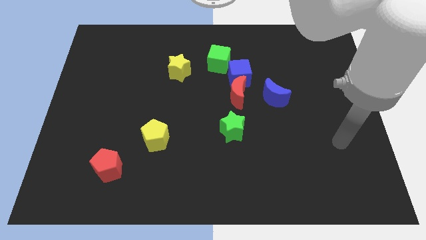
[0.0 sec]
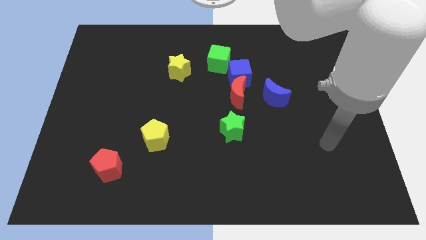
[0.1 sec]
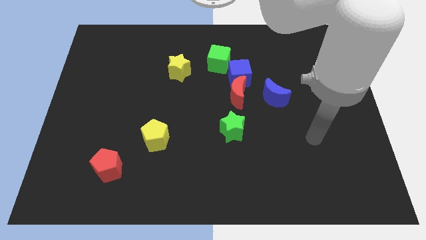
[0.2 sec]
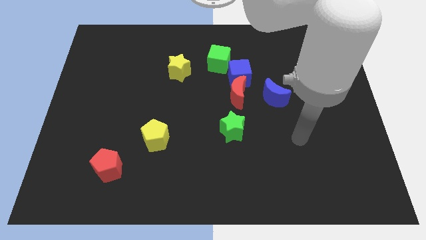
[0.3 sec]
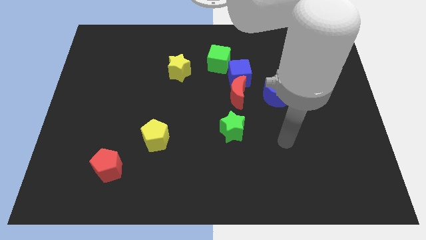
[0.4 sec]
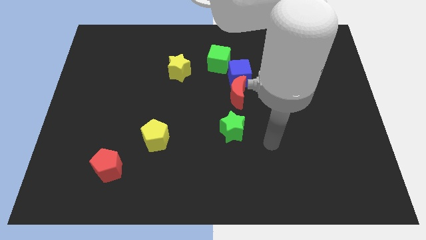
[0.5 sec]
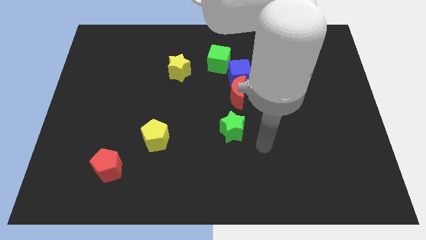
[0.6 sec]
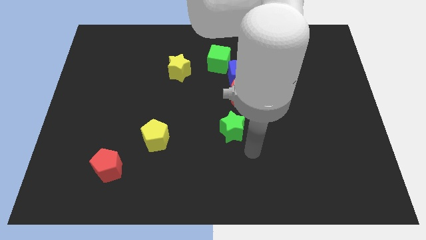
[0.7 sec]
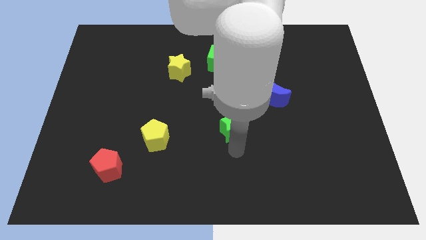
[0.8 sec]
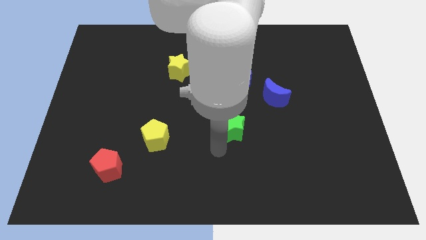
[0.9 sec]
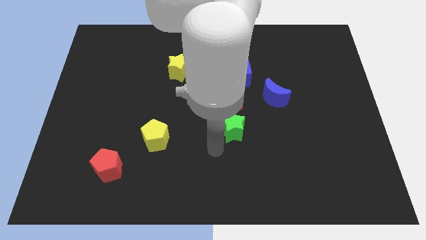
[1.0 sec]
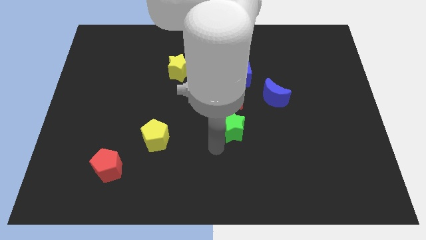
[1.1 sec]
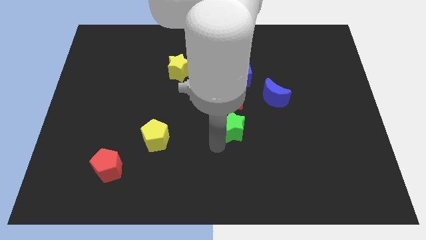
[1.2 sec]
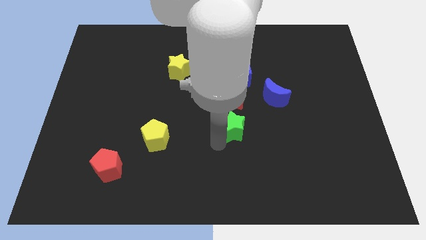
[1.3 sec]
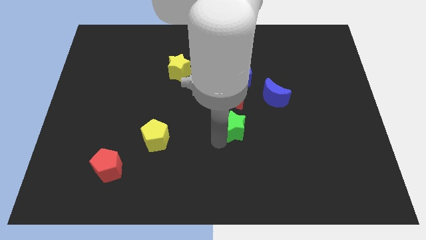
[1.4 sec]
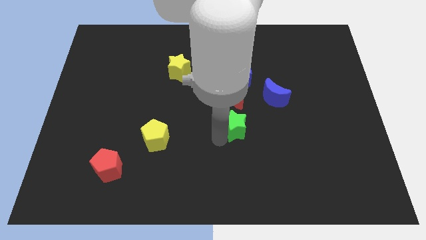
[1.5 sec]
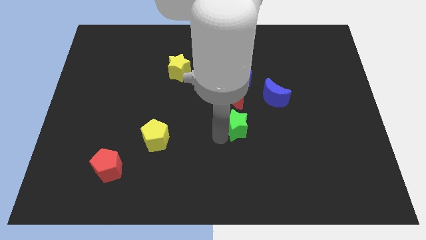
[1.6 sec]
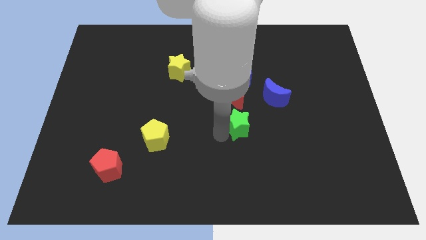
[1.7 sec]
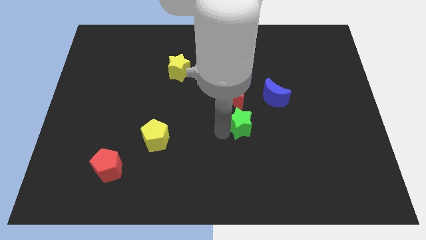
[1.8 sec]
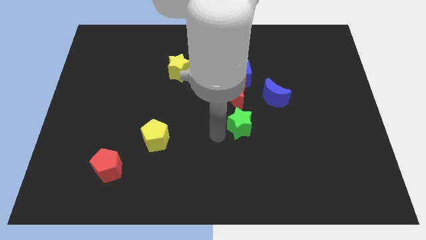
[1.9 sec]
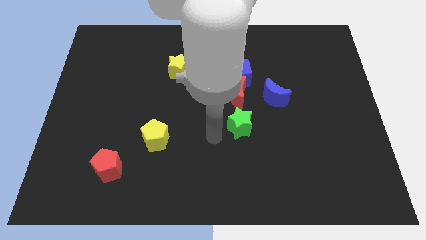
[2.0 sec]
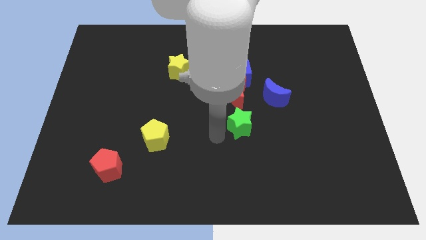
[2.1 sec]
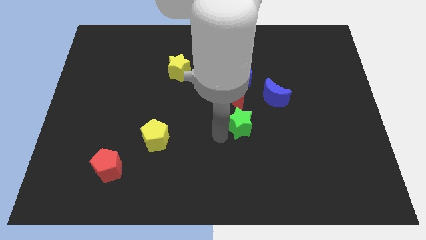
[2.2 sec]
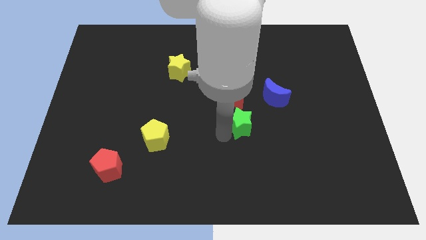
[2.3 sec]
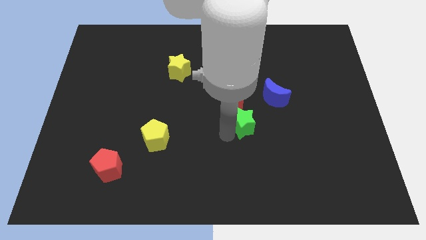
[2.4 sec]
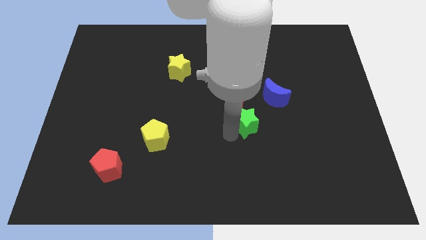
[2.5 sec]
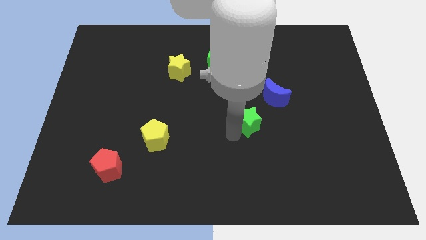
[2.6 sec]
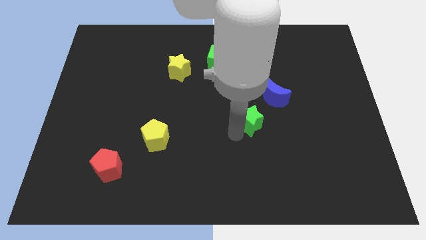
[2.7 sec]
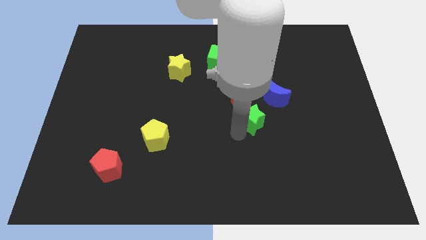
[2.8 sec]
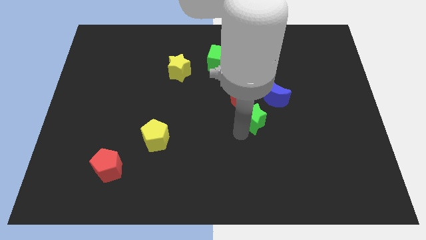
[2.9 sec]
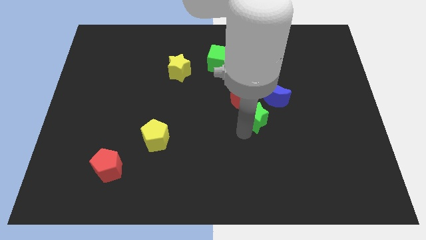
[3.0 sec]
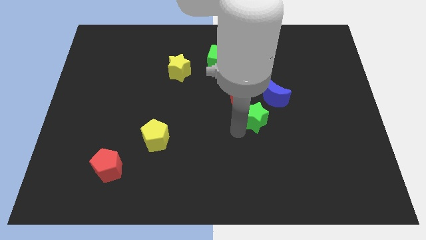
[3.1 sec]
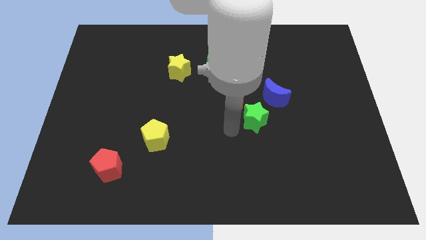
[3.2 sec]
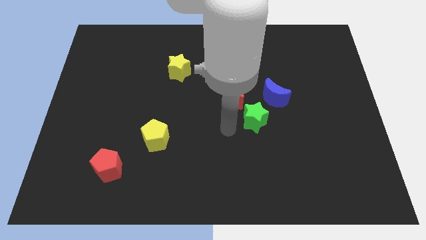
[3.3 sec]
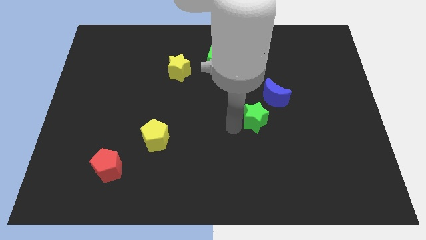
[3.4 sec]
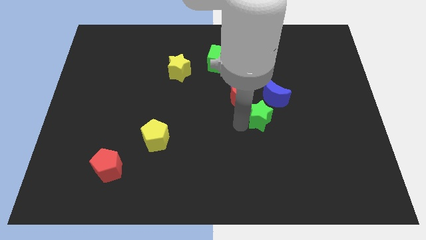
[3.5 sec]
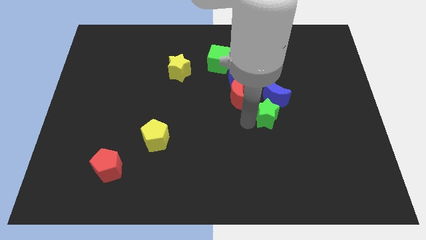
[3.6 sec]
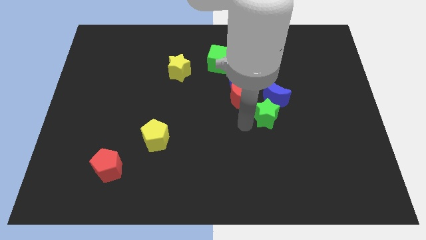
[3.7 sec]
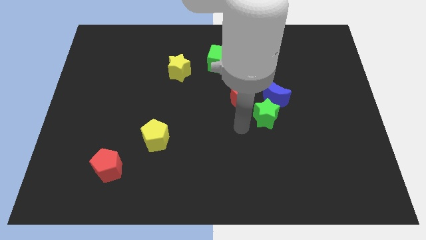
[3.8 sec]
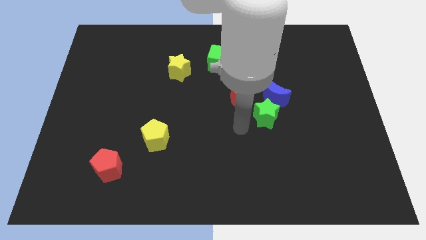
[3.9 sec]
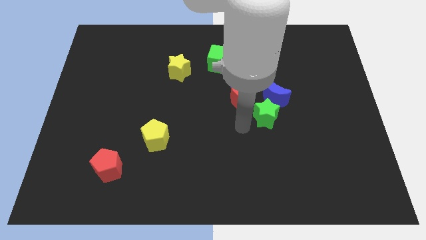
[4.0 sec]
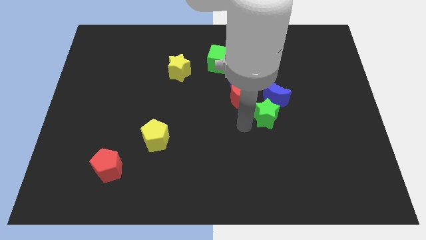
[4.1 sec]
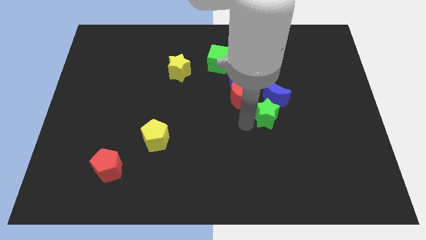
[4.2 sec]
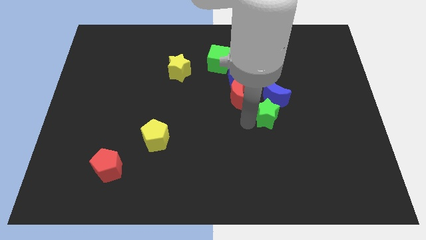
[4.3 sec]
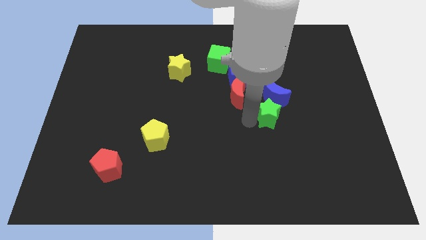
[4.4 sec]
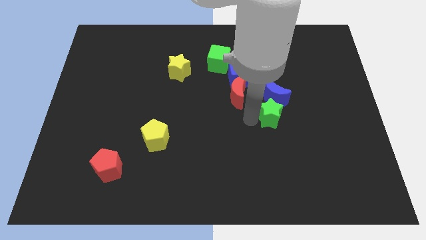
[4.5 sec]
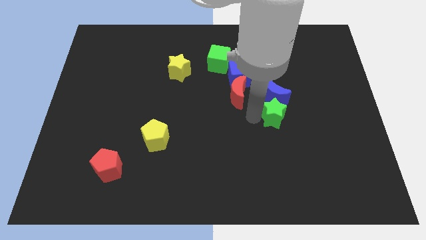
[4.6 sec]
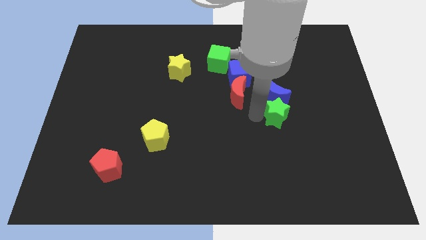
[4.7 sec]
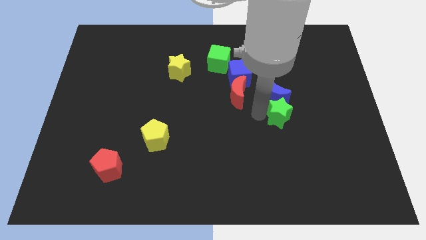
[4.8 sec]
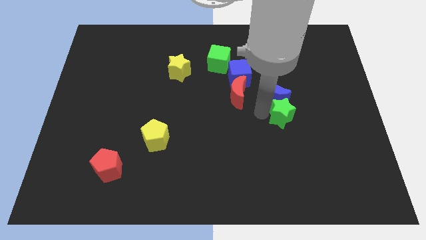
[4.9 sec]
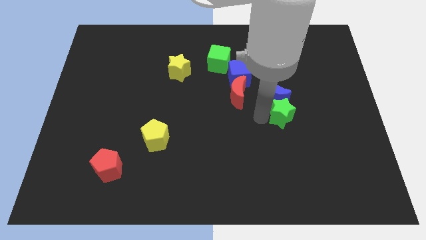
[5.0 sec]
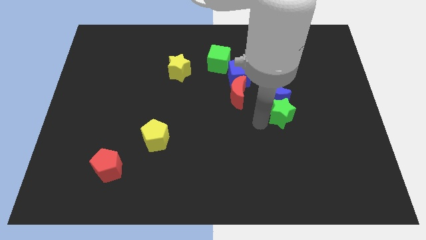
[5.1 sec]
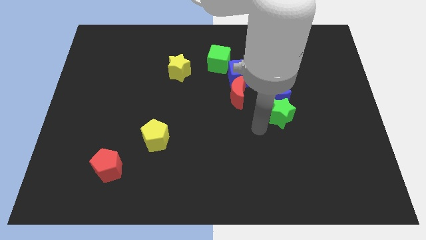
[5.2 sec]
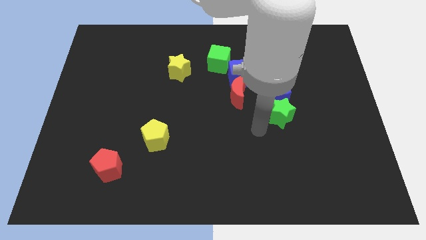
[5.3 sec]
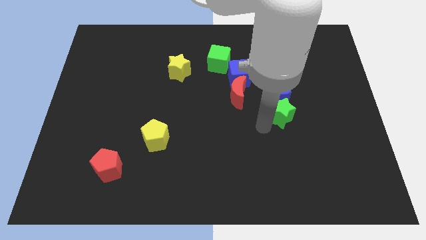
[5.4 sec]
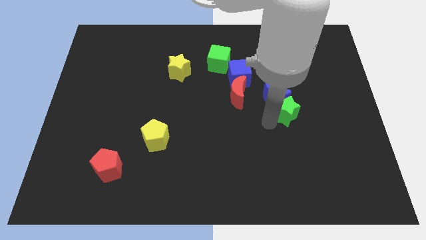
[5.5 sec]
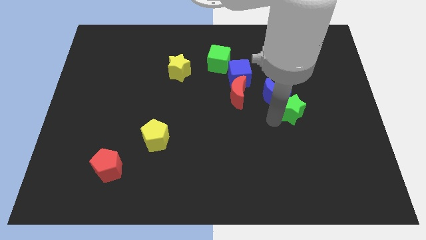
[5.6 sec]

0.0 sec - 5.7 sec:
put the green star to the right of the blue moon

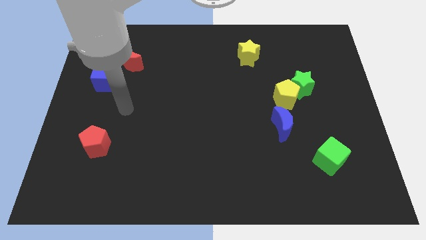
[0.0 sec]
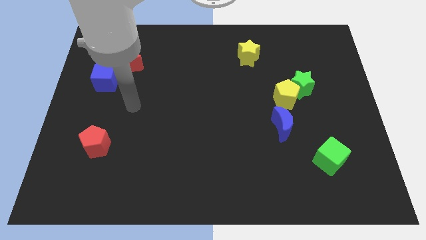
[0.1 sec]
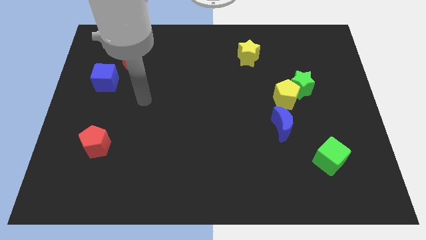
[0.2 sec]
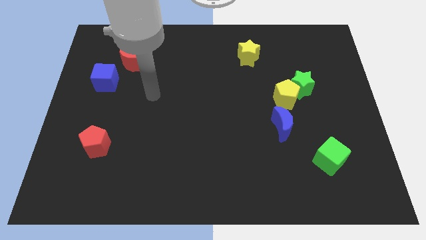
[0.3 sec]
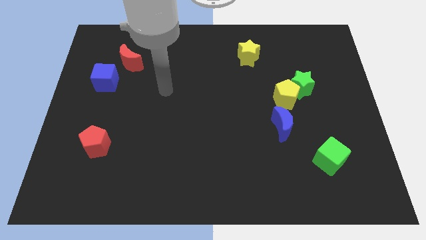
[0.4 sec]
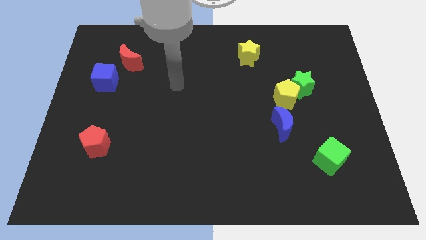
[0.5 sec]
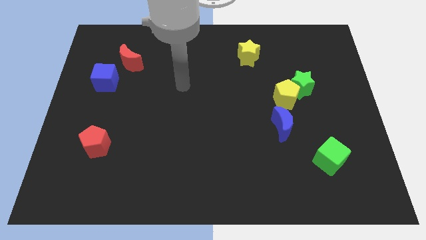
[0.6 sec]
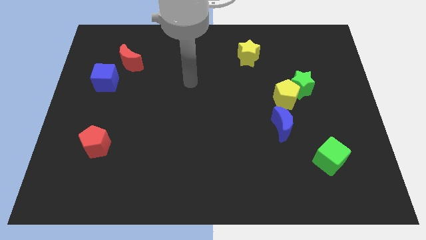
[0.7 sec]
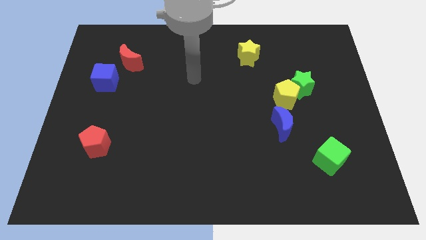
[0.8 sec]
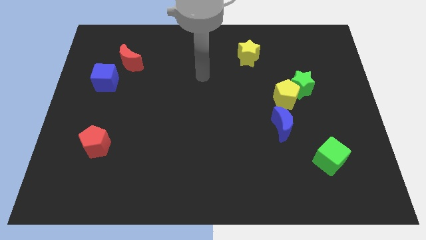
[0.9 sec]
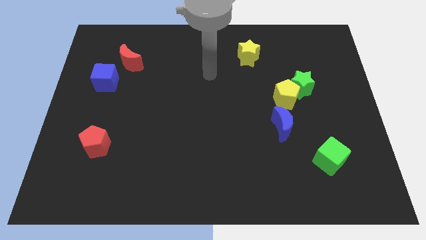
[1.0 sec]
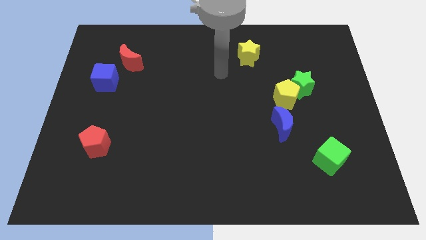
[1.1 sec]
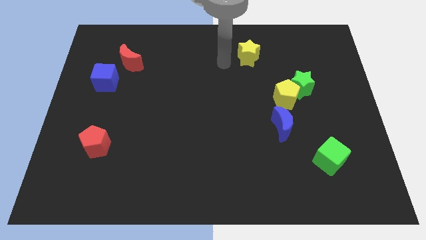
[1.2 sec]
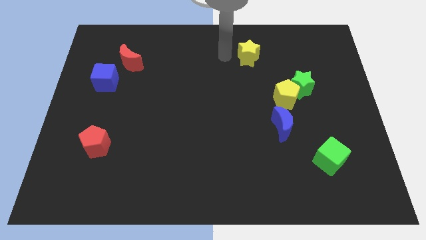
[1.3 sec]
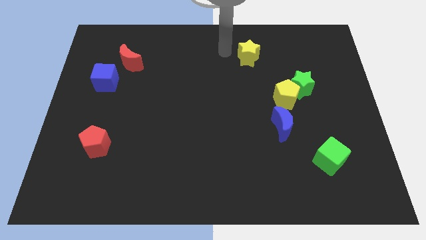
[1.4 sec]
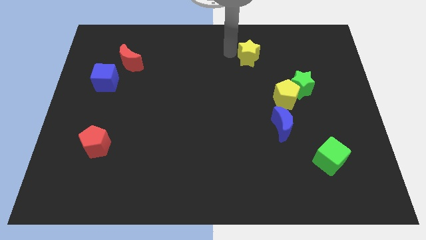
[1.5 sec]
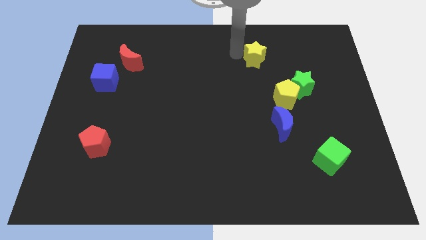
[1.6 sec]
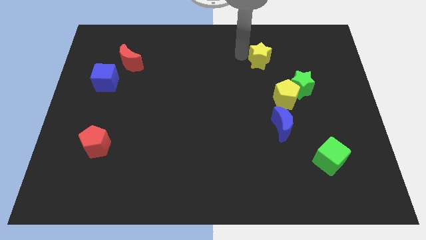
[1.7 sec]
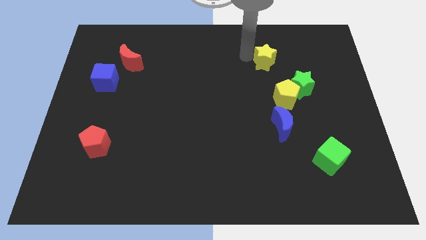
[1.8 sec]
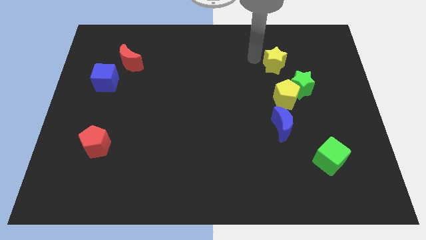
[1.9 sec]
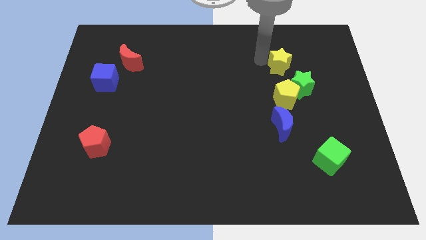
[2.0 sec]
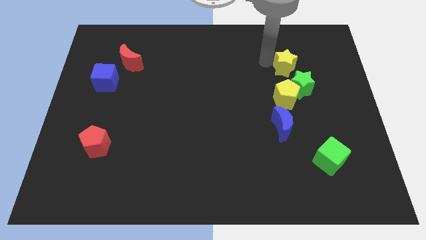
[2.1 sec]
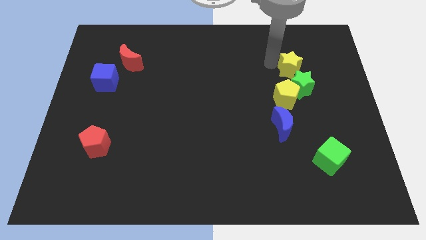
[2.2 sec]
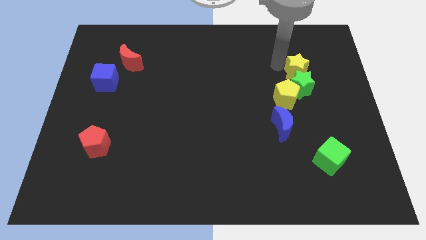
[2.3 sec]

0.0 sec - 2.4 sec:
move the yellow star to the top right side of the green star
